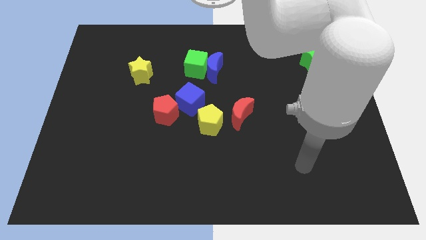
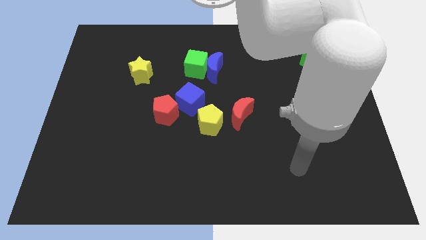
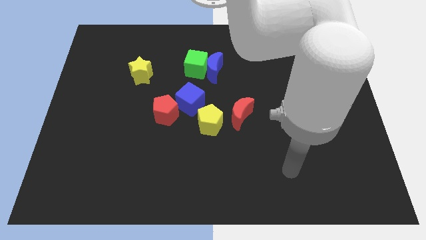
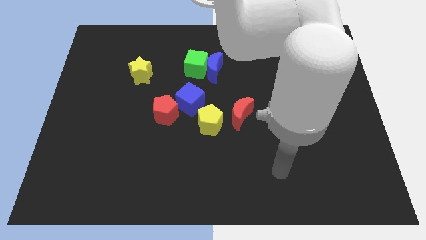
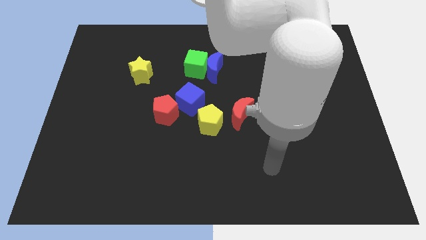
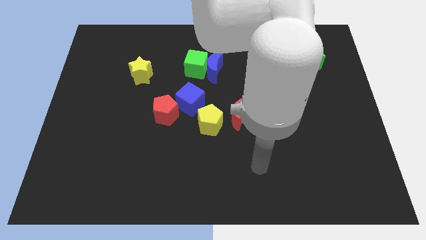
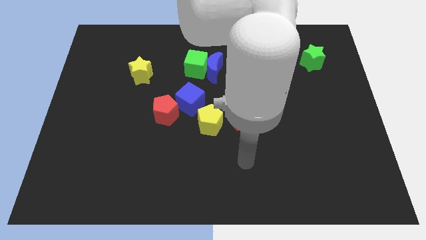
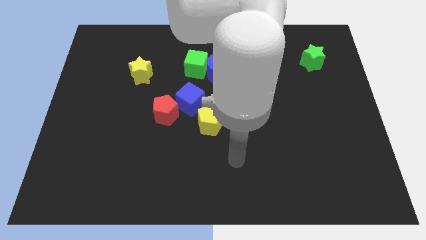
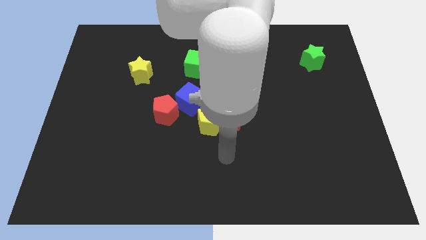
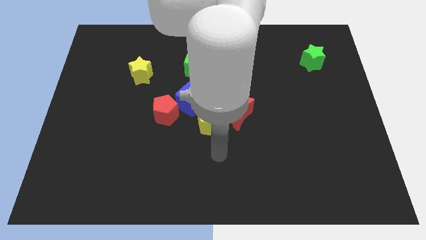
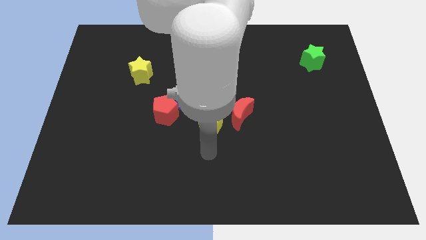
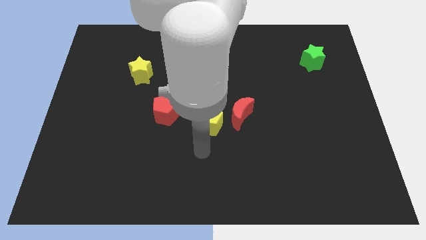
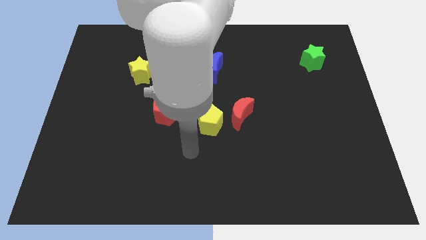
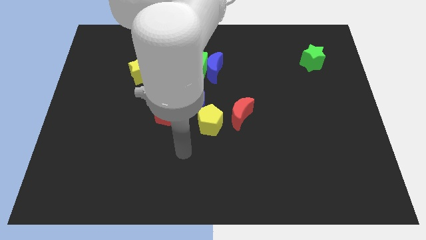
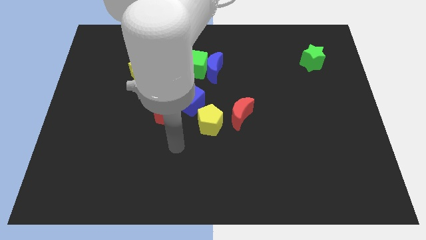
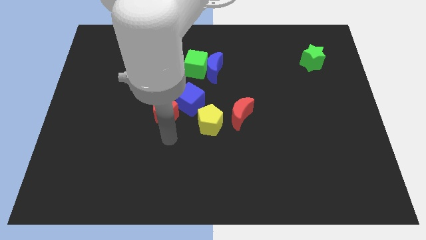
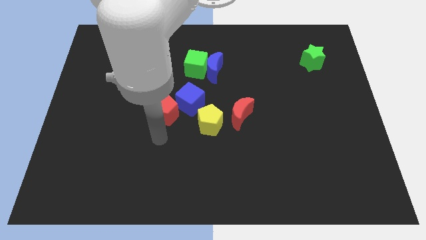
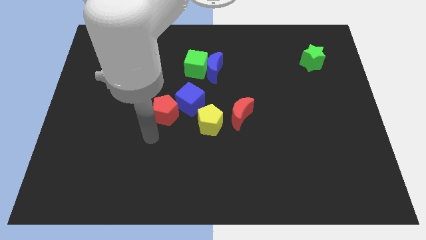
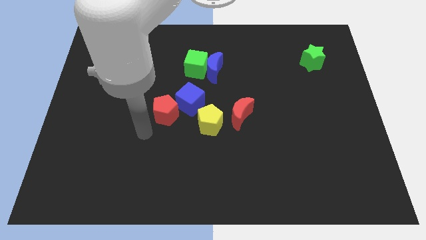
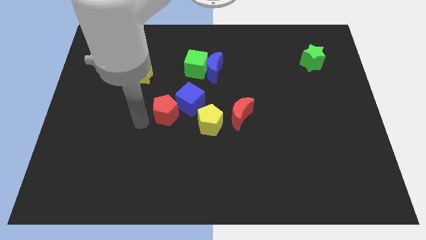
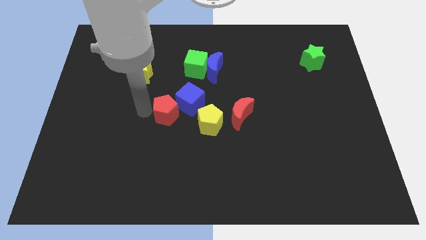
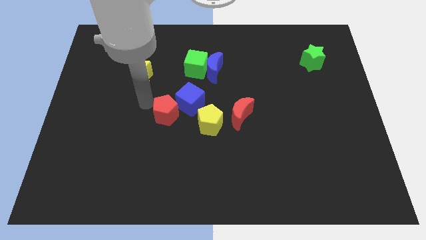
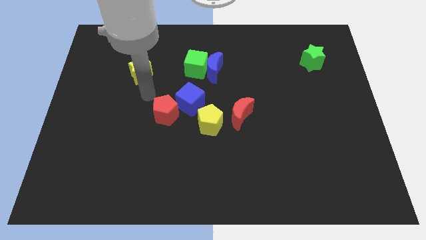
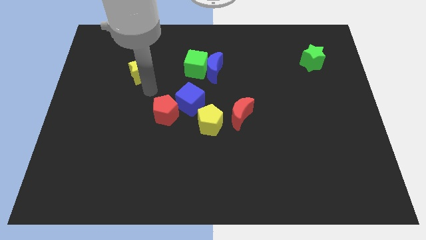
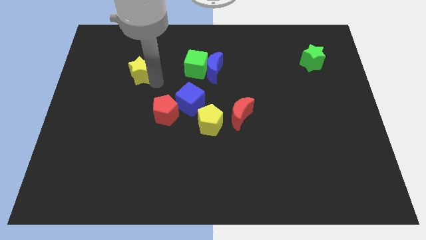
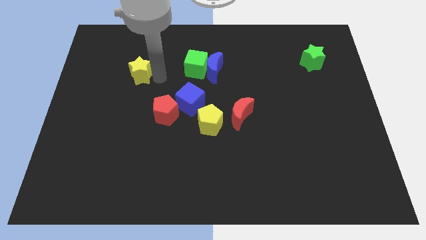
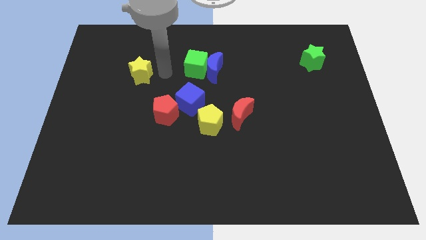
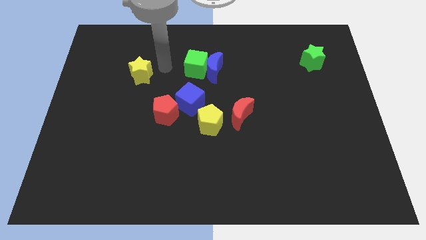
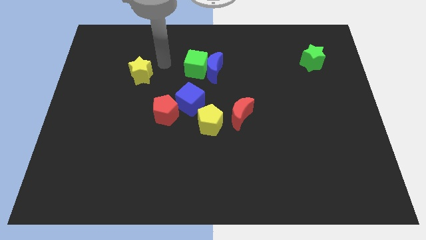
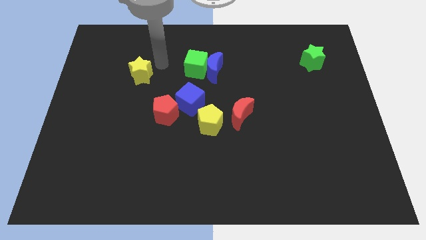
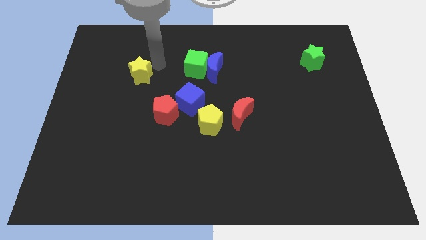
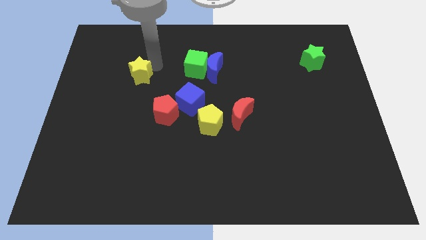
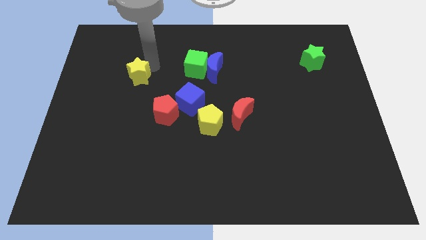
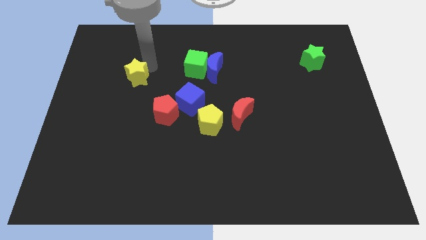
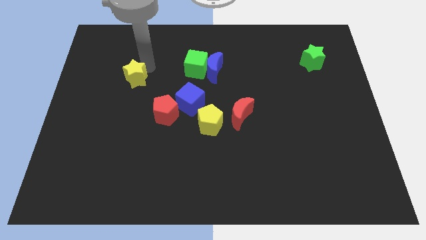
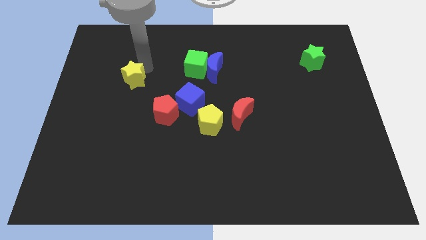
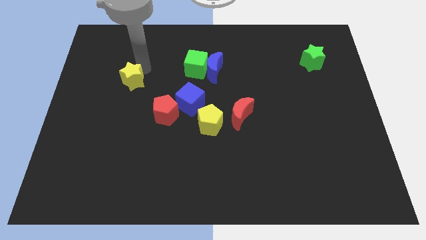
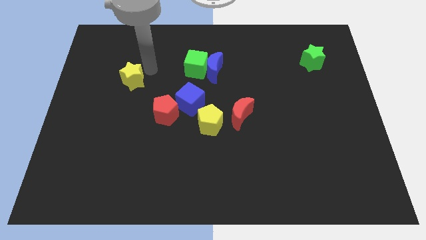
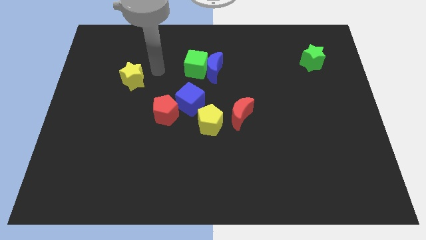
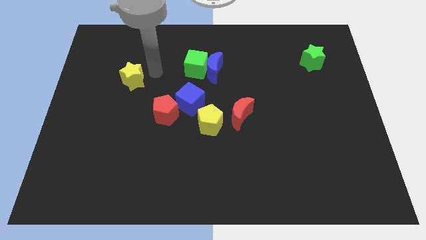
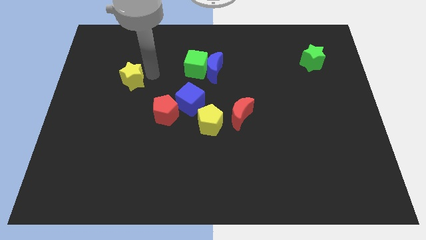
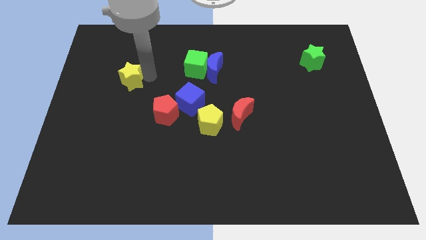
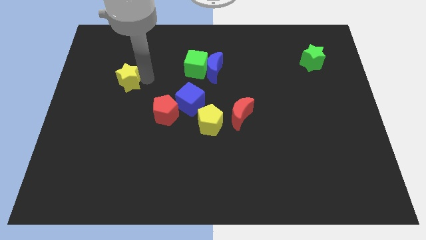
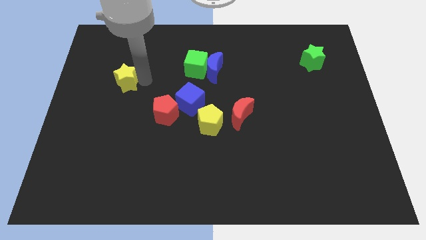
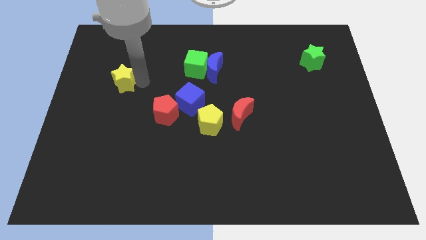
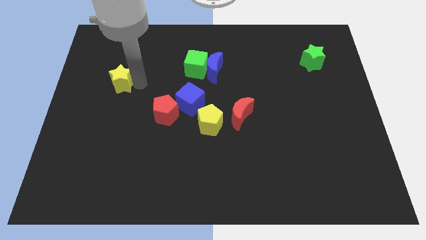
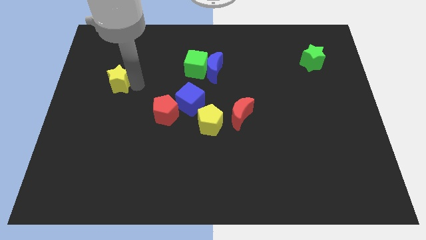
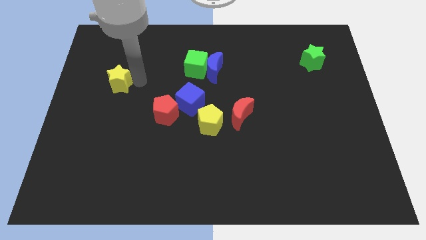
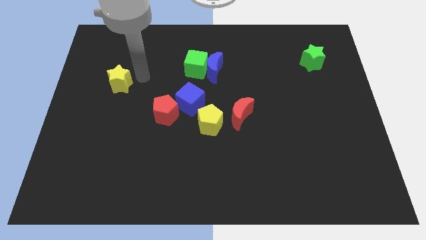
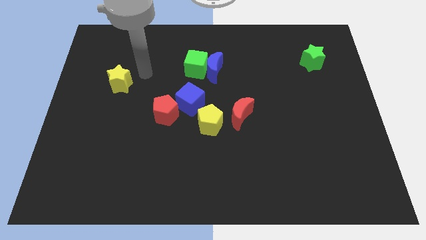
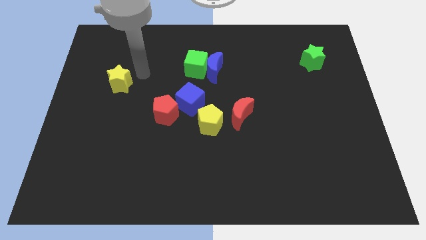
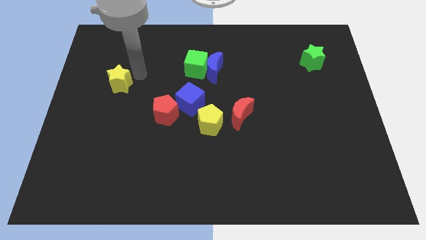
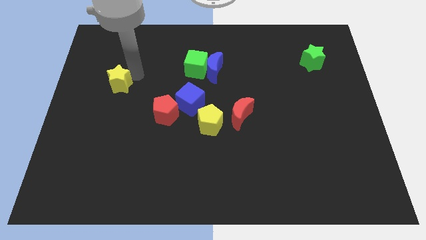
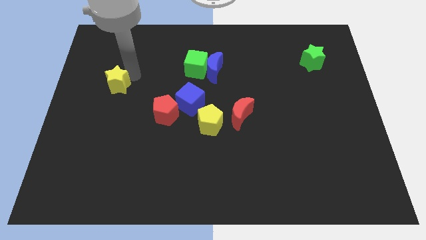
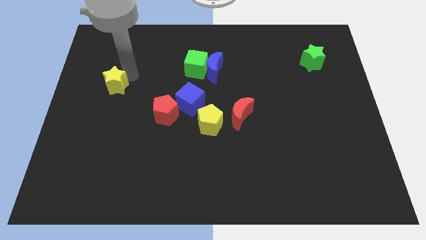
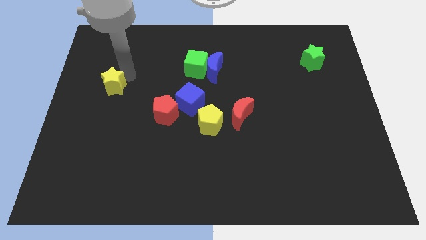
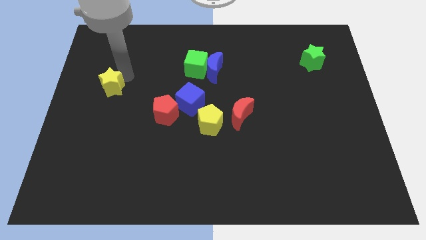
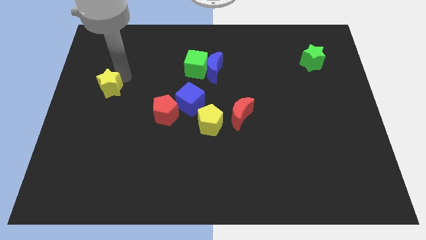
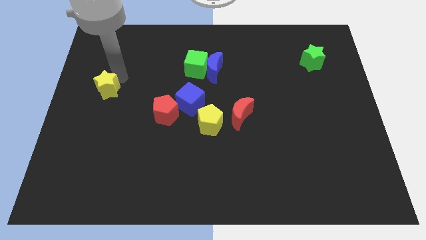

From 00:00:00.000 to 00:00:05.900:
put the yellow star to the center left
